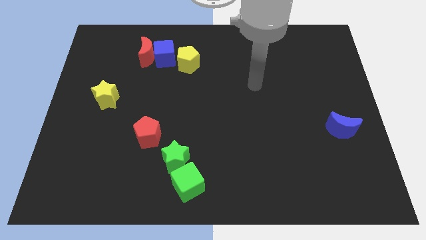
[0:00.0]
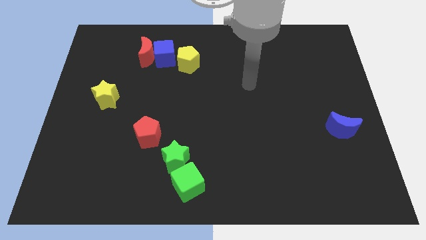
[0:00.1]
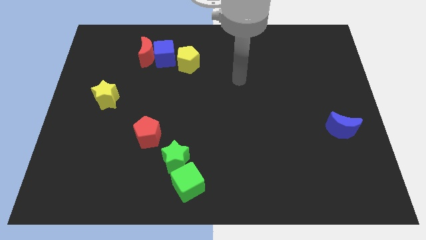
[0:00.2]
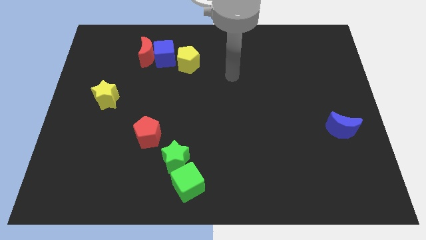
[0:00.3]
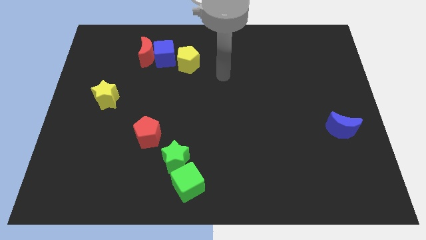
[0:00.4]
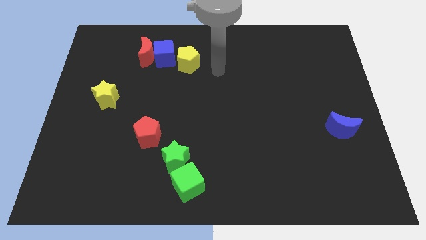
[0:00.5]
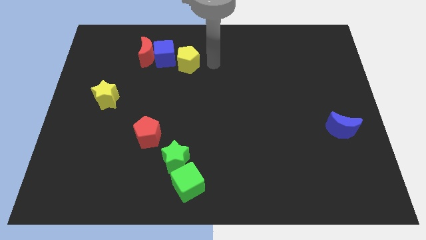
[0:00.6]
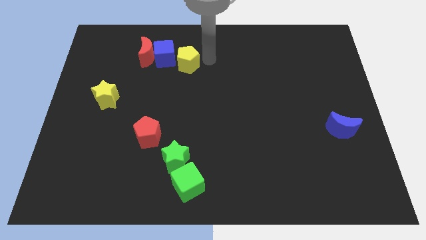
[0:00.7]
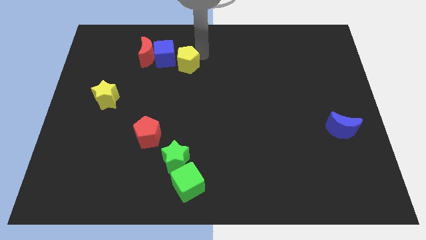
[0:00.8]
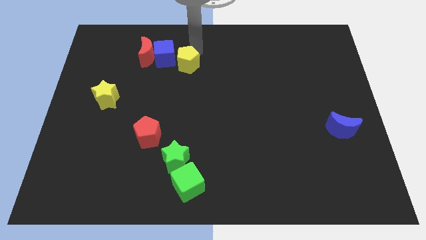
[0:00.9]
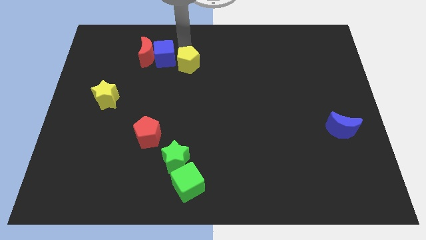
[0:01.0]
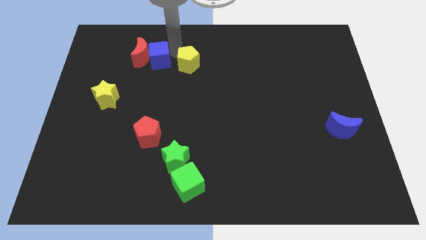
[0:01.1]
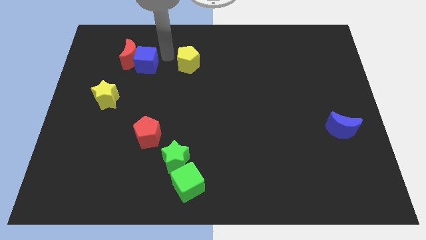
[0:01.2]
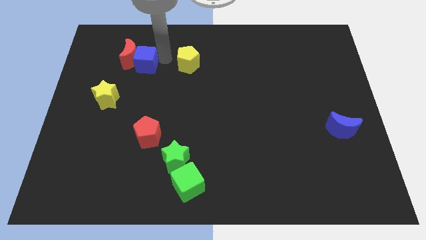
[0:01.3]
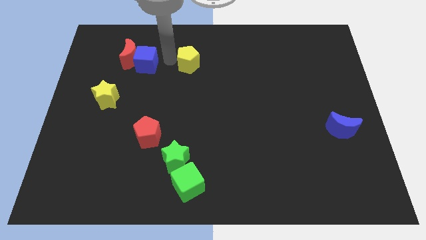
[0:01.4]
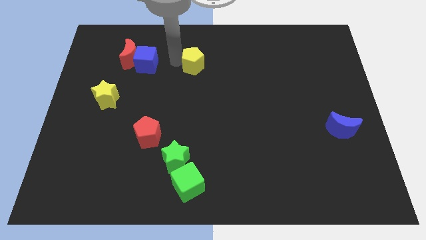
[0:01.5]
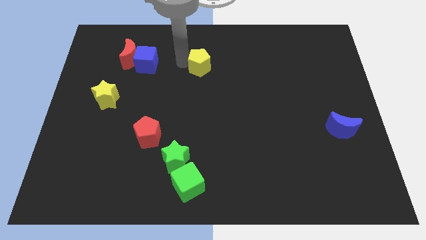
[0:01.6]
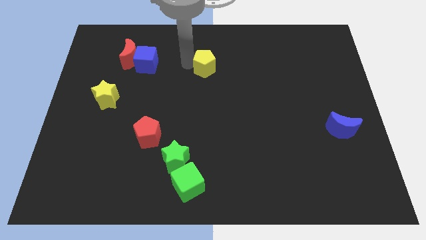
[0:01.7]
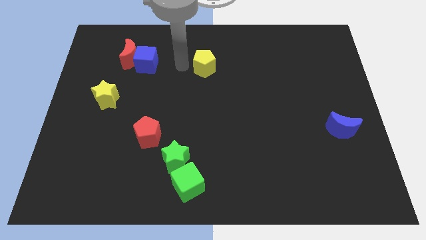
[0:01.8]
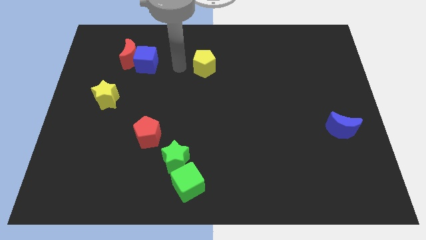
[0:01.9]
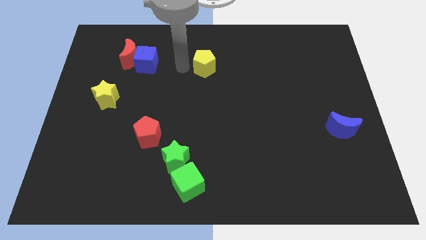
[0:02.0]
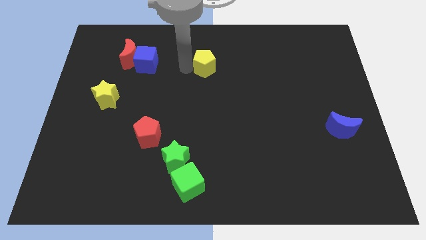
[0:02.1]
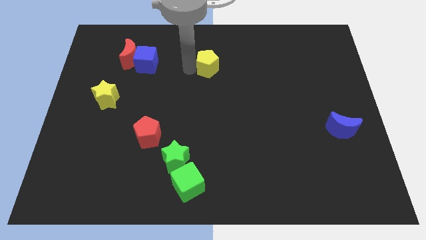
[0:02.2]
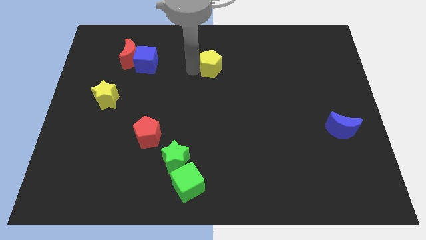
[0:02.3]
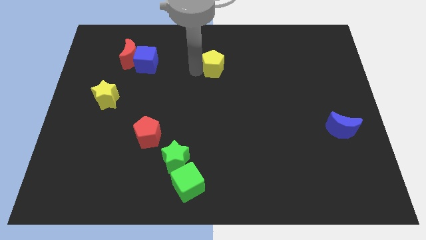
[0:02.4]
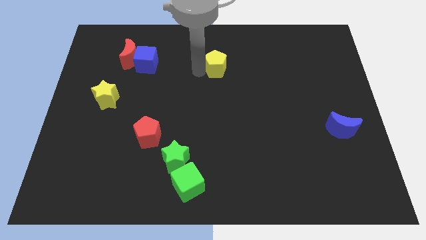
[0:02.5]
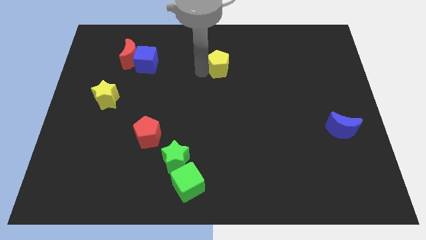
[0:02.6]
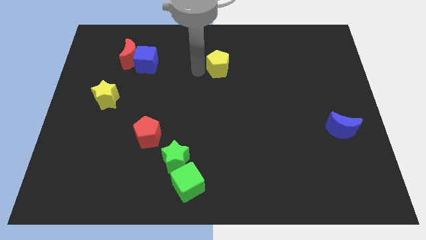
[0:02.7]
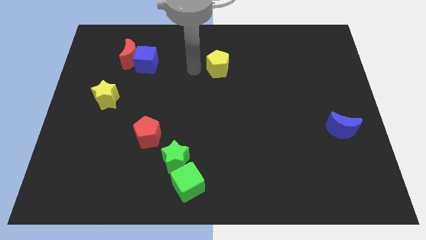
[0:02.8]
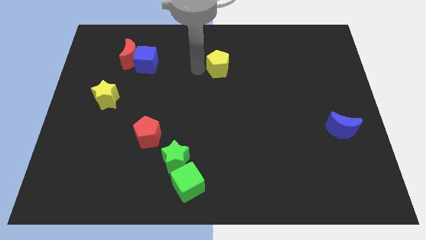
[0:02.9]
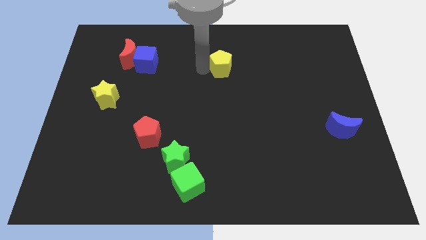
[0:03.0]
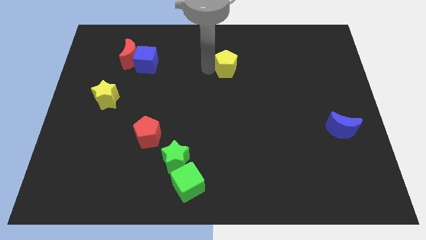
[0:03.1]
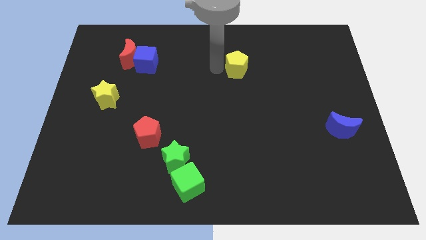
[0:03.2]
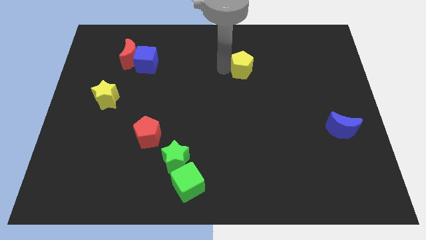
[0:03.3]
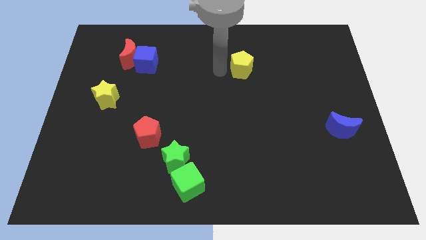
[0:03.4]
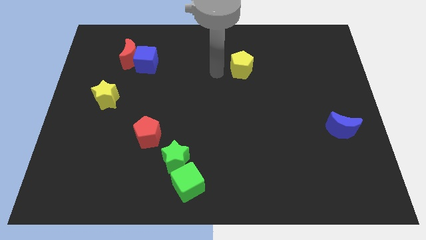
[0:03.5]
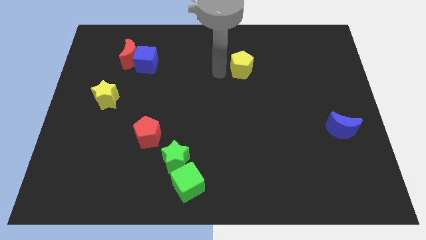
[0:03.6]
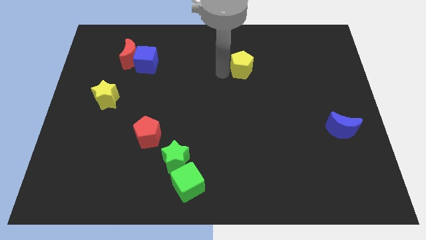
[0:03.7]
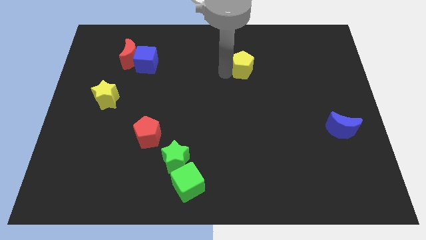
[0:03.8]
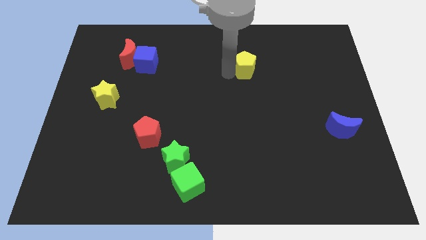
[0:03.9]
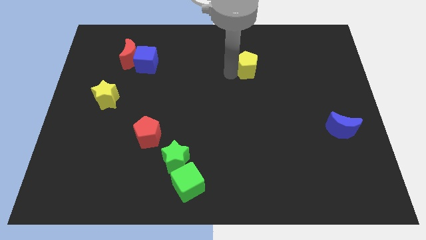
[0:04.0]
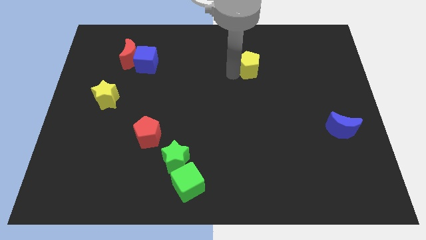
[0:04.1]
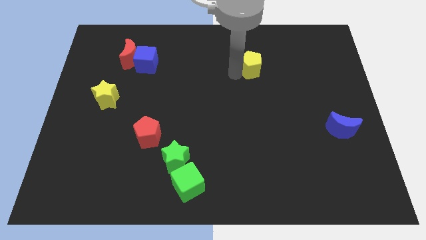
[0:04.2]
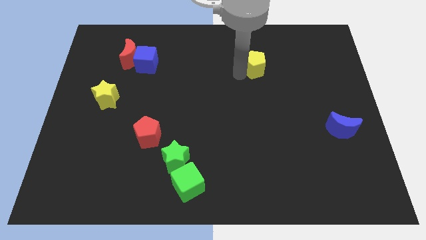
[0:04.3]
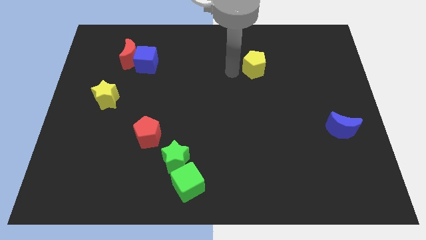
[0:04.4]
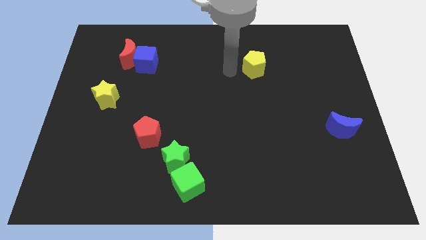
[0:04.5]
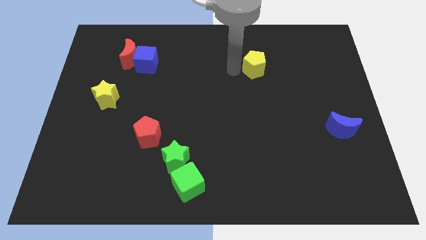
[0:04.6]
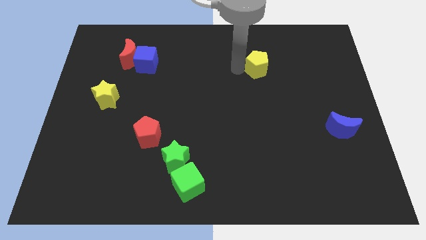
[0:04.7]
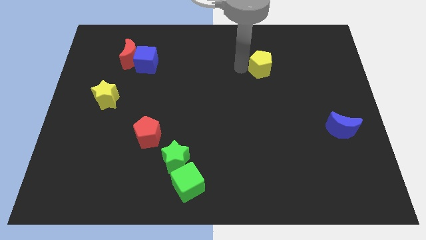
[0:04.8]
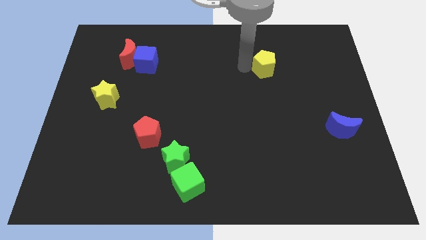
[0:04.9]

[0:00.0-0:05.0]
slide the yellow pentagon right

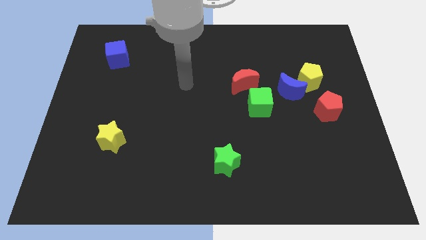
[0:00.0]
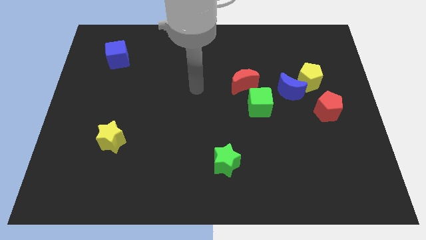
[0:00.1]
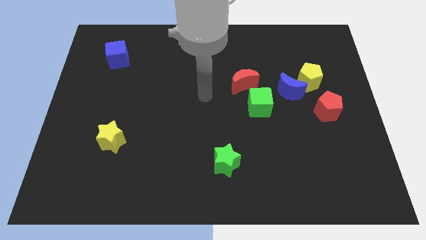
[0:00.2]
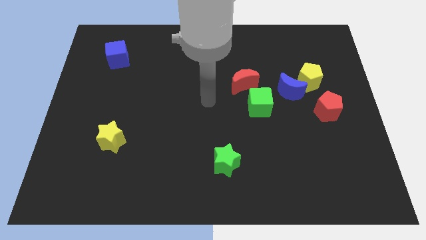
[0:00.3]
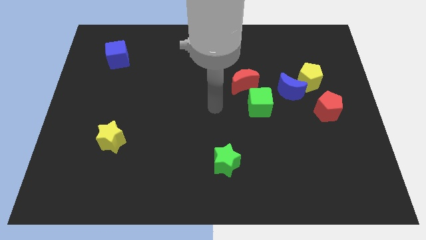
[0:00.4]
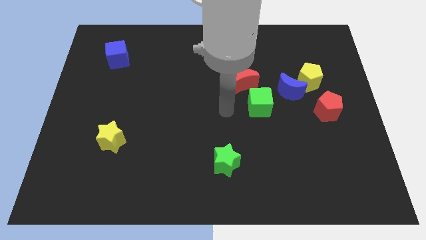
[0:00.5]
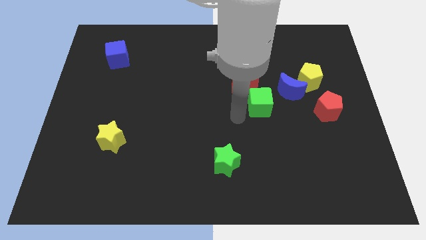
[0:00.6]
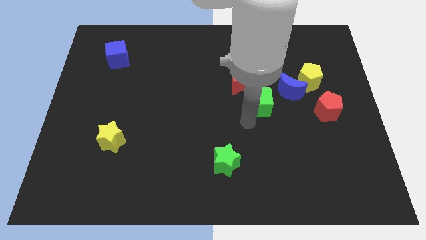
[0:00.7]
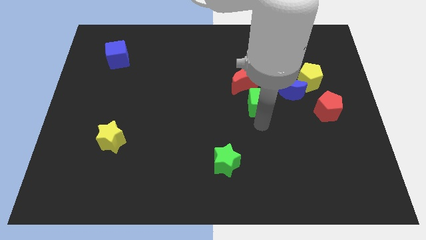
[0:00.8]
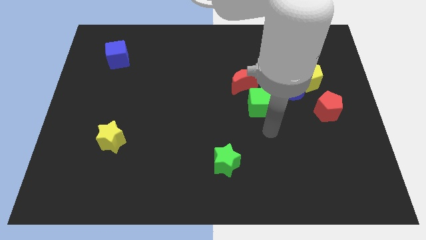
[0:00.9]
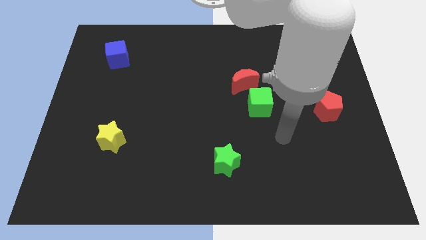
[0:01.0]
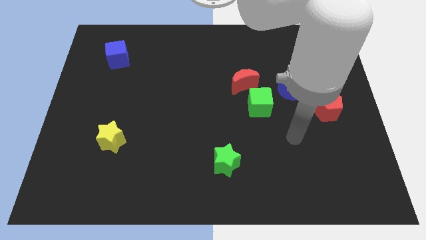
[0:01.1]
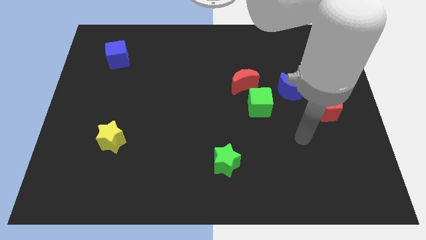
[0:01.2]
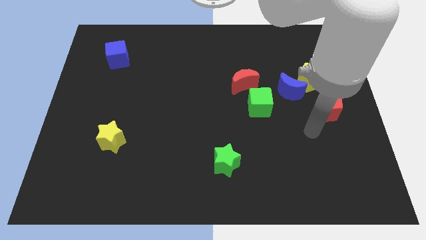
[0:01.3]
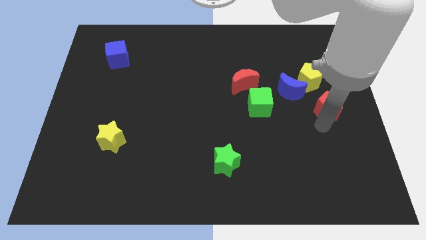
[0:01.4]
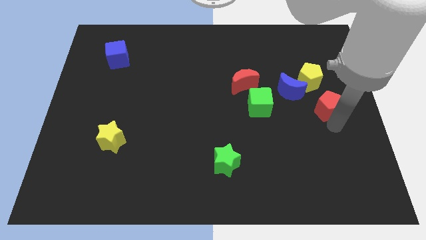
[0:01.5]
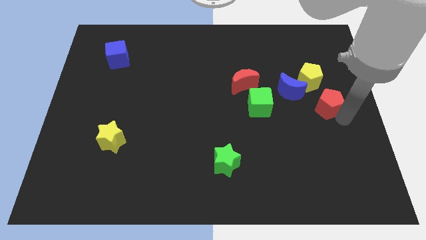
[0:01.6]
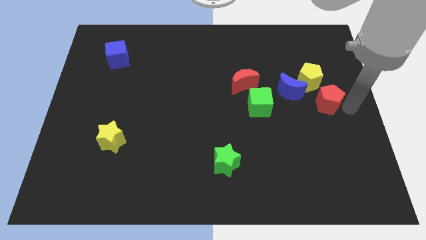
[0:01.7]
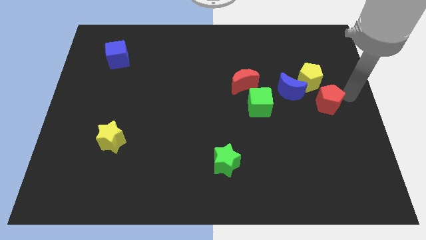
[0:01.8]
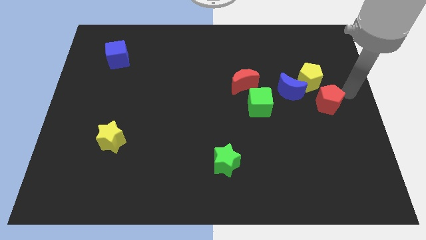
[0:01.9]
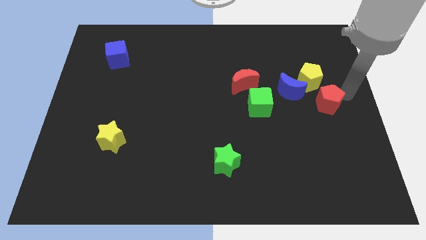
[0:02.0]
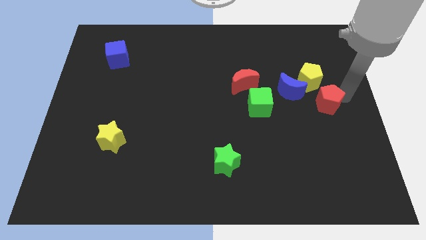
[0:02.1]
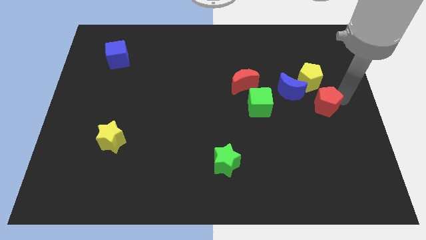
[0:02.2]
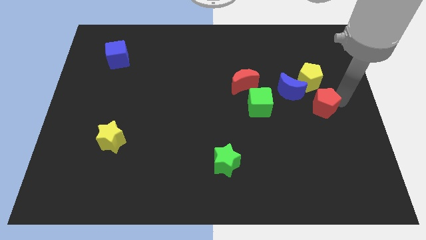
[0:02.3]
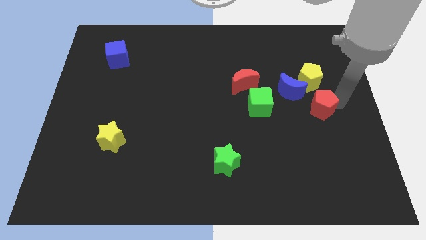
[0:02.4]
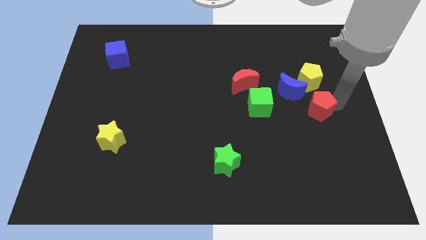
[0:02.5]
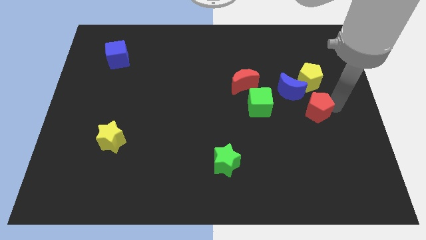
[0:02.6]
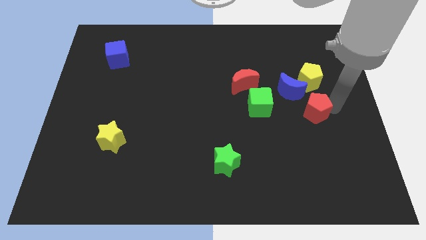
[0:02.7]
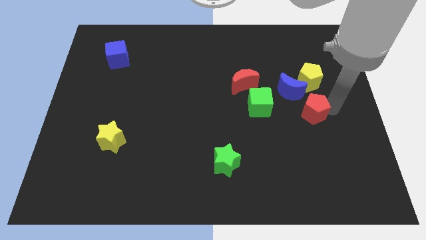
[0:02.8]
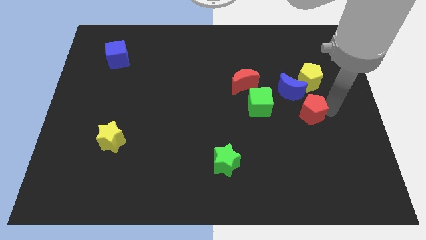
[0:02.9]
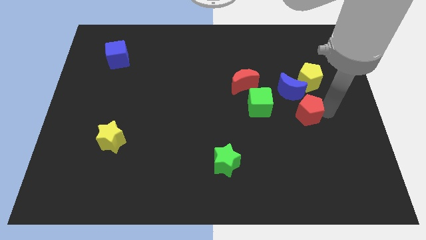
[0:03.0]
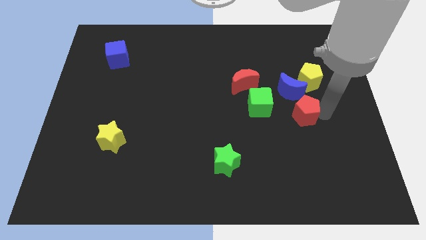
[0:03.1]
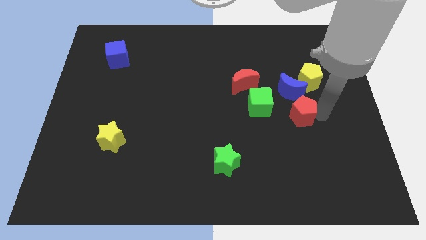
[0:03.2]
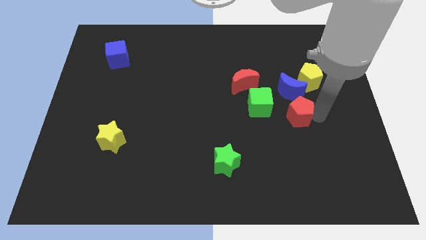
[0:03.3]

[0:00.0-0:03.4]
slide the red pentagon a little bit left
